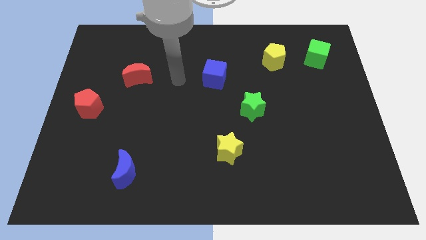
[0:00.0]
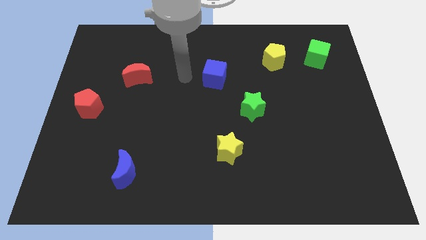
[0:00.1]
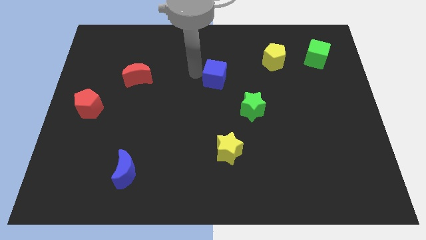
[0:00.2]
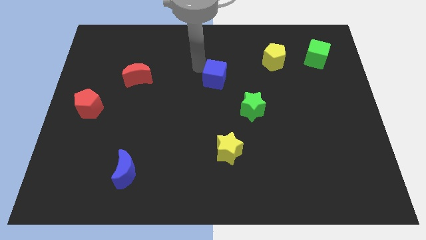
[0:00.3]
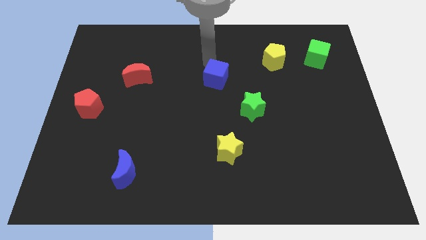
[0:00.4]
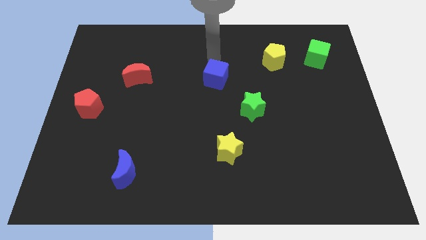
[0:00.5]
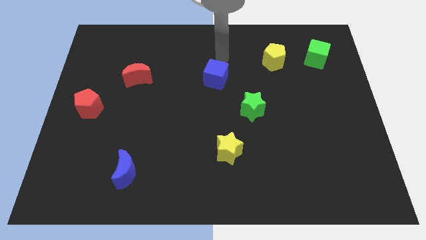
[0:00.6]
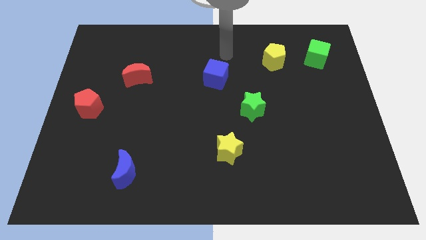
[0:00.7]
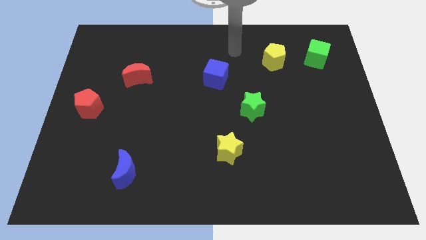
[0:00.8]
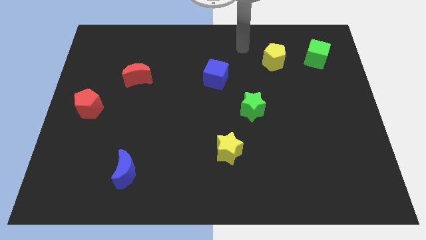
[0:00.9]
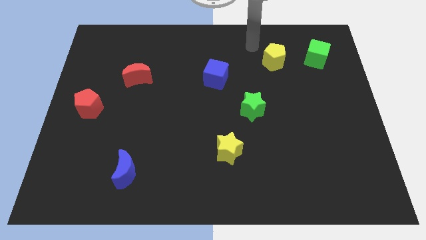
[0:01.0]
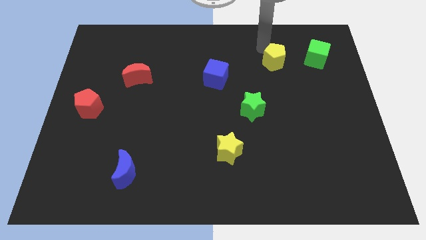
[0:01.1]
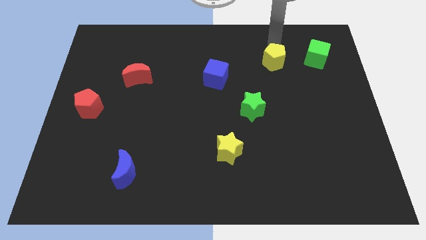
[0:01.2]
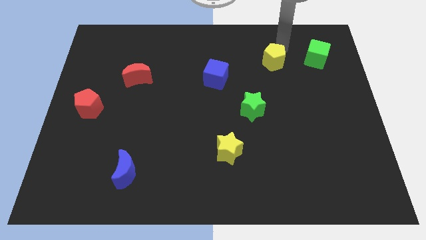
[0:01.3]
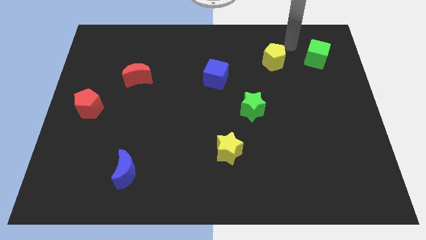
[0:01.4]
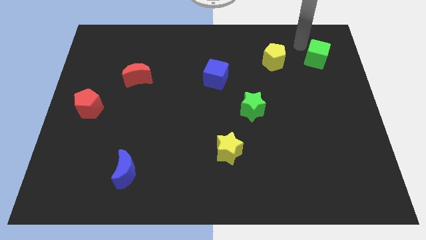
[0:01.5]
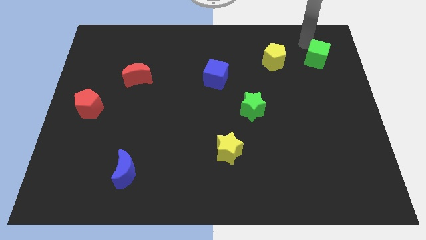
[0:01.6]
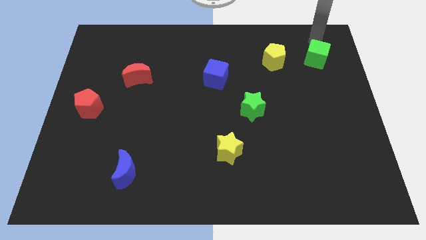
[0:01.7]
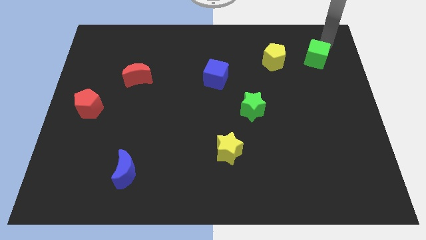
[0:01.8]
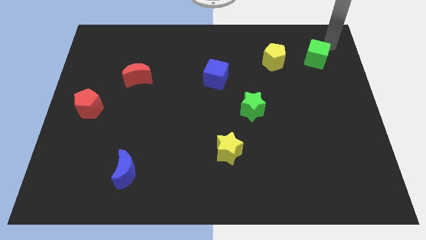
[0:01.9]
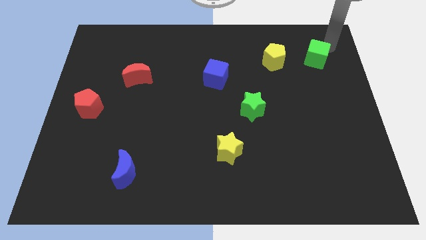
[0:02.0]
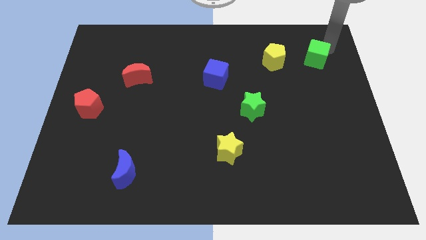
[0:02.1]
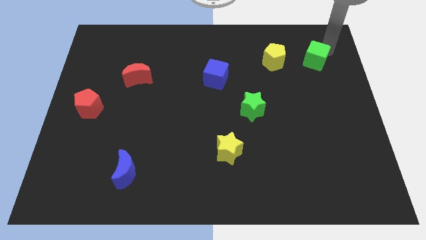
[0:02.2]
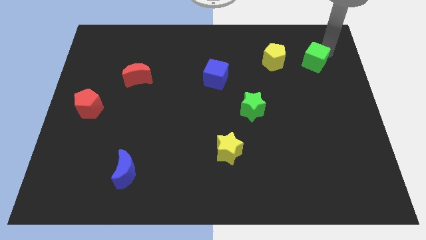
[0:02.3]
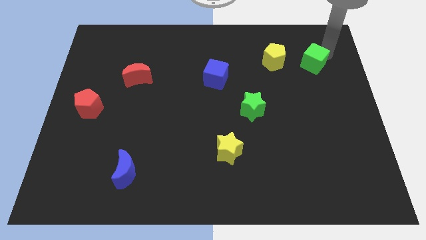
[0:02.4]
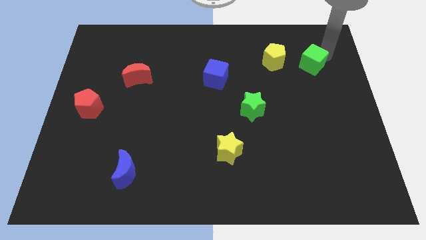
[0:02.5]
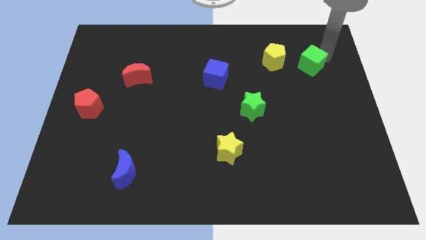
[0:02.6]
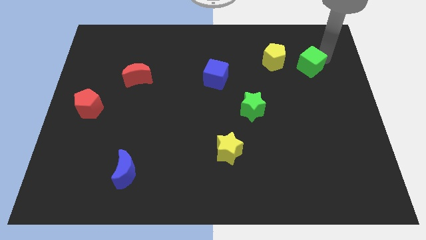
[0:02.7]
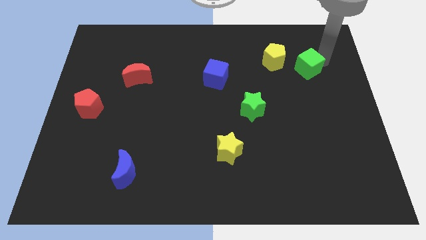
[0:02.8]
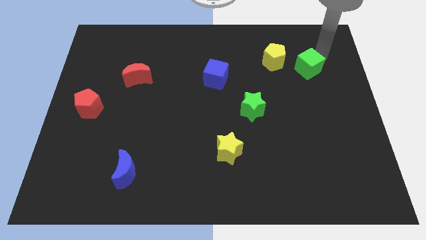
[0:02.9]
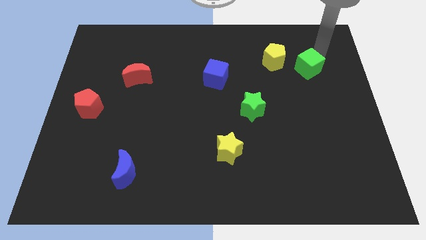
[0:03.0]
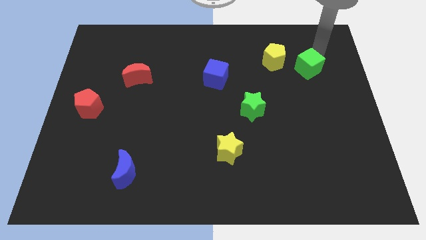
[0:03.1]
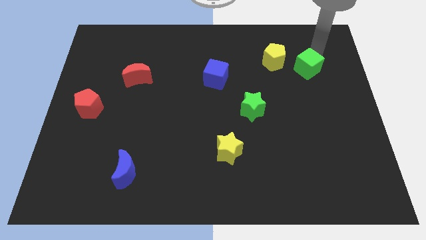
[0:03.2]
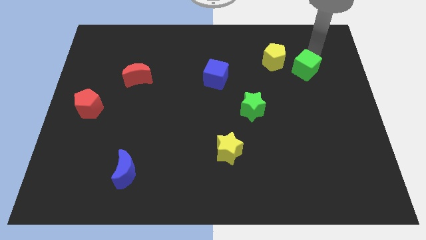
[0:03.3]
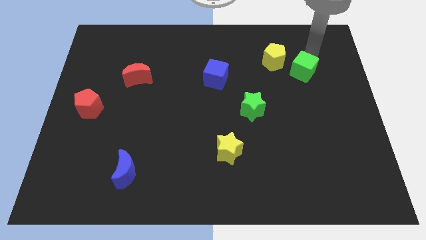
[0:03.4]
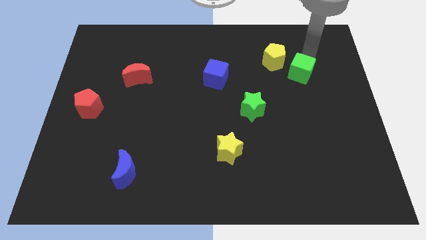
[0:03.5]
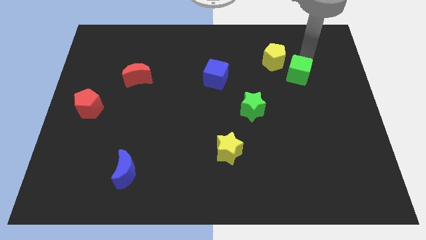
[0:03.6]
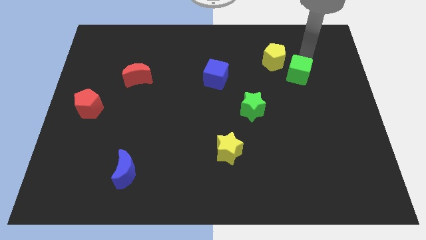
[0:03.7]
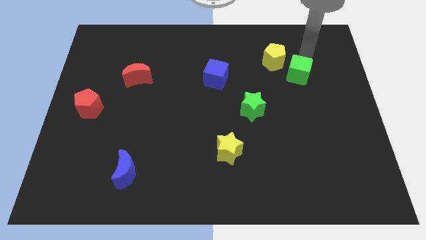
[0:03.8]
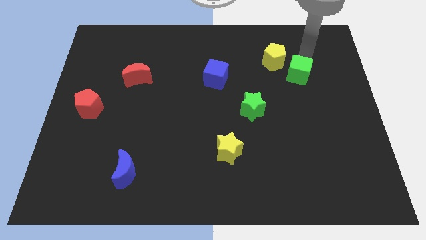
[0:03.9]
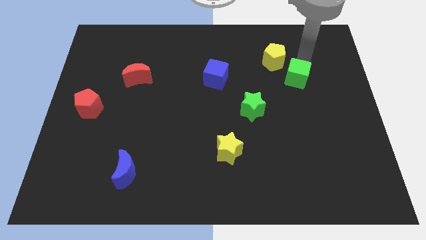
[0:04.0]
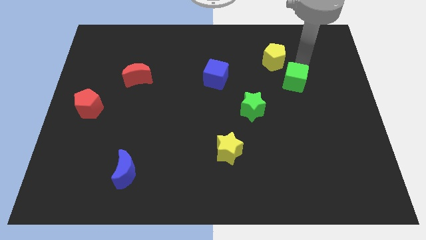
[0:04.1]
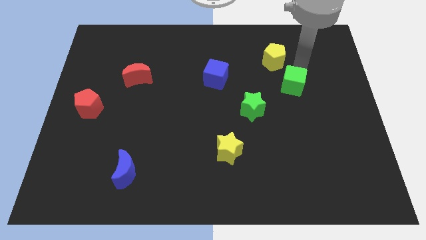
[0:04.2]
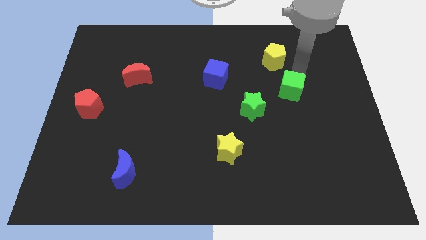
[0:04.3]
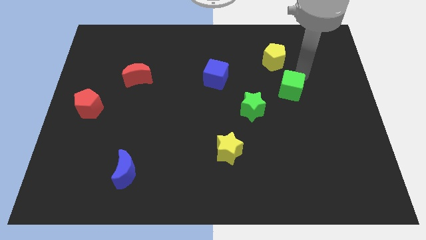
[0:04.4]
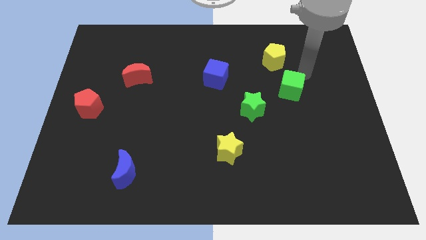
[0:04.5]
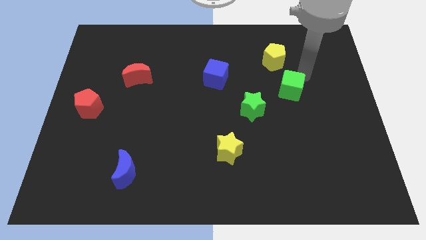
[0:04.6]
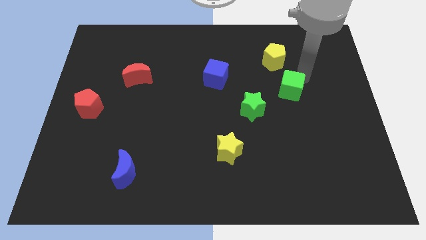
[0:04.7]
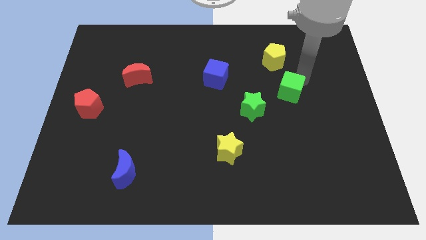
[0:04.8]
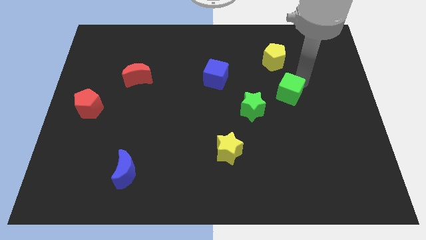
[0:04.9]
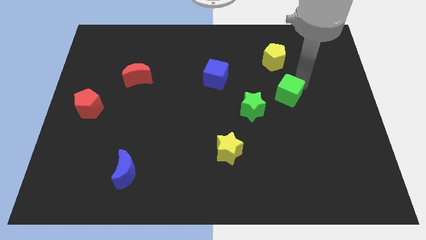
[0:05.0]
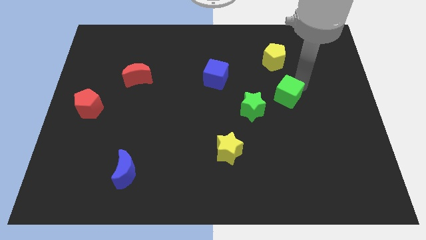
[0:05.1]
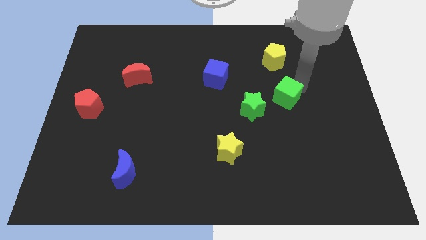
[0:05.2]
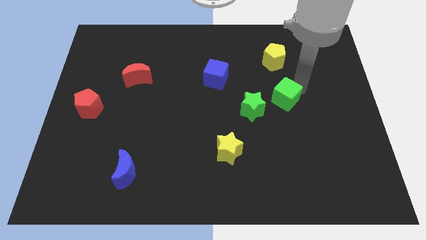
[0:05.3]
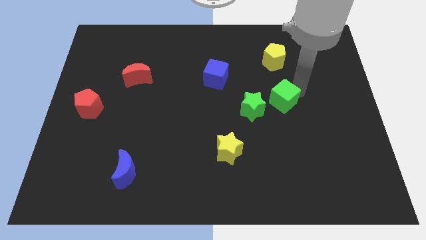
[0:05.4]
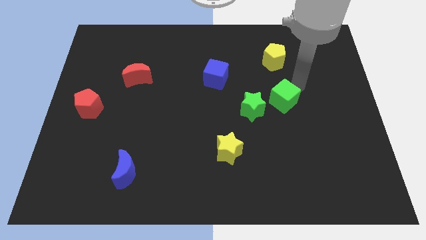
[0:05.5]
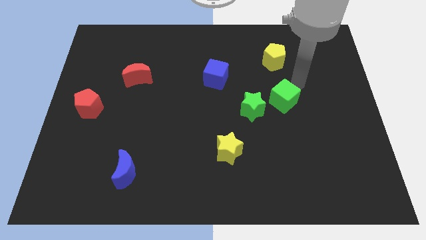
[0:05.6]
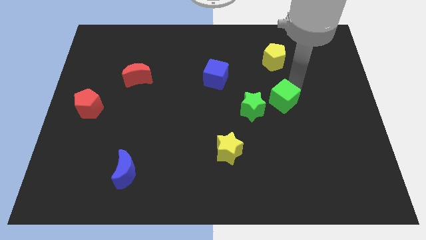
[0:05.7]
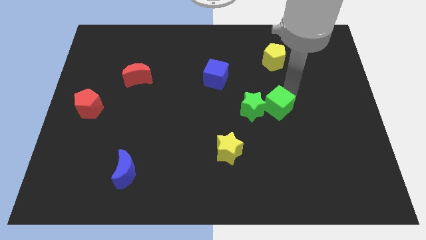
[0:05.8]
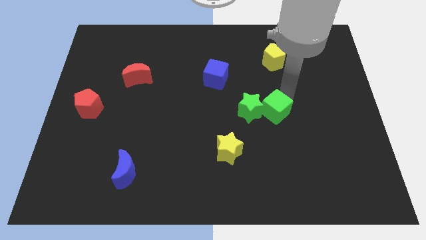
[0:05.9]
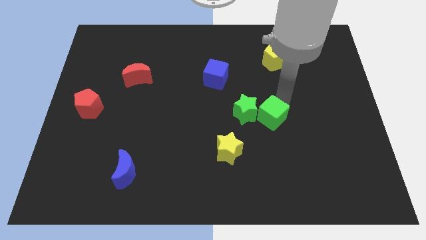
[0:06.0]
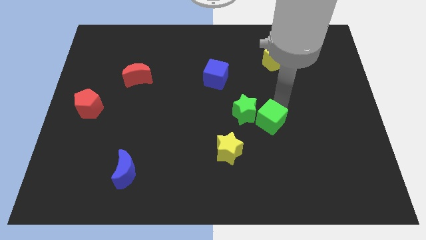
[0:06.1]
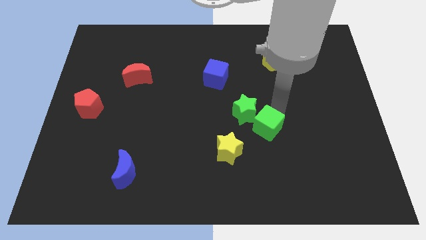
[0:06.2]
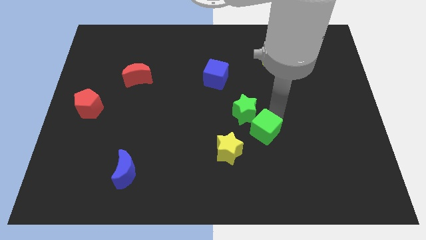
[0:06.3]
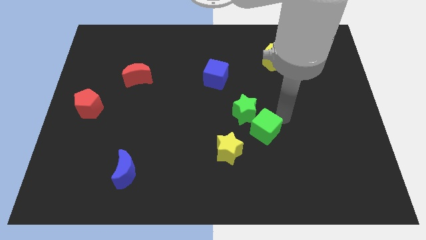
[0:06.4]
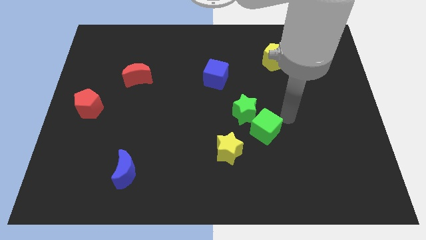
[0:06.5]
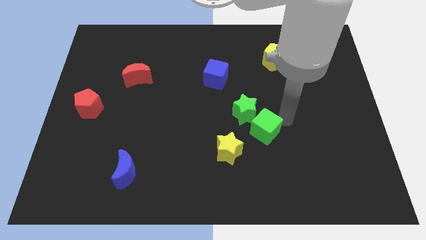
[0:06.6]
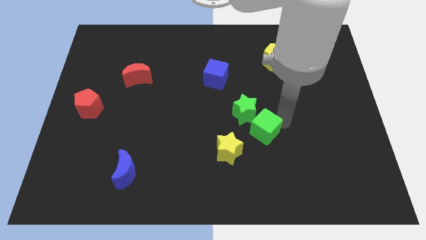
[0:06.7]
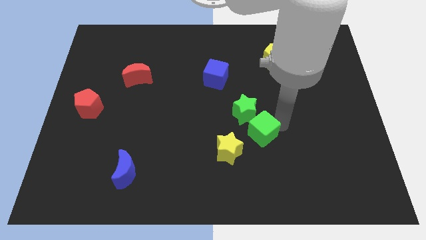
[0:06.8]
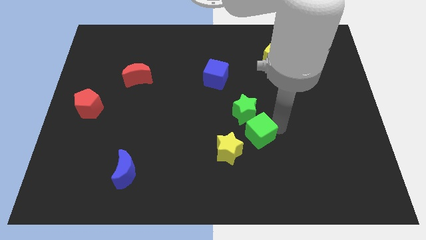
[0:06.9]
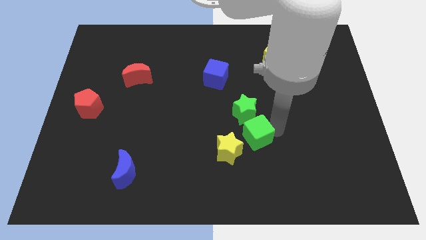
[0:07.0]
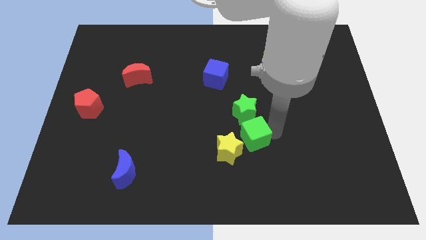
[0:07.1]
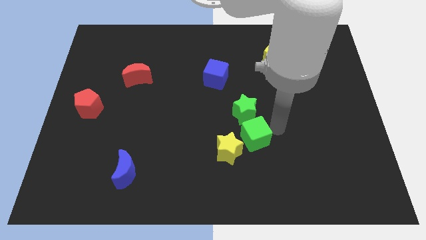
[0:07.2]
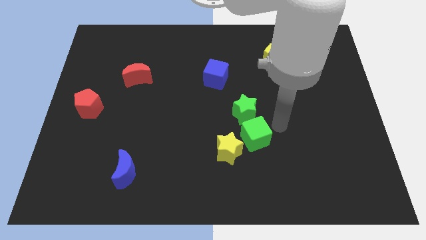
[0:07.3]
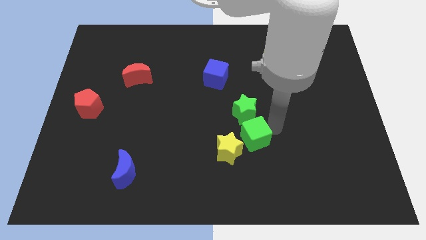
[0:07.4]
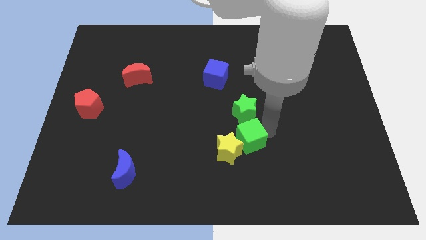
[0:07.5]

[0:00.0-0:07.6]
push the green cube close to the yellow star
